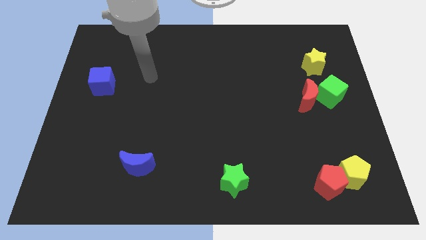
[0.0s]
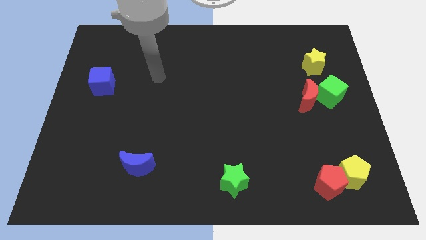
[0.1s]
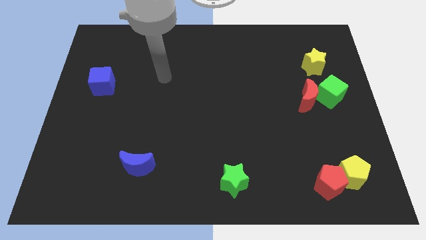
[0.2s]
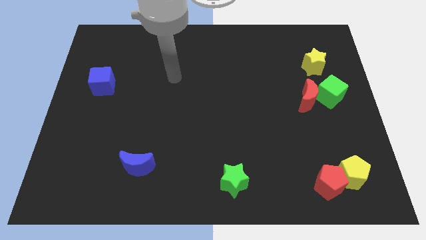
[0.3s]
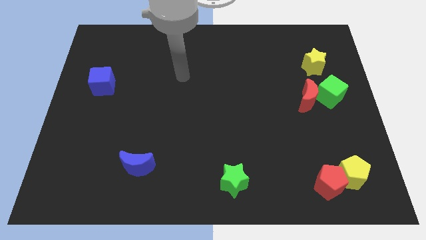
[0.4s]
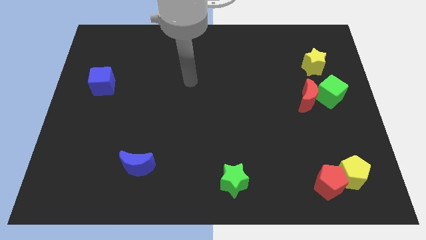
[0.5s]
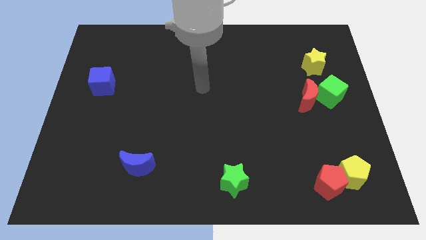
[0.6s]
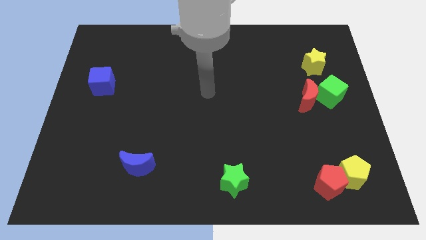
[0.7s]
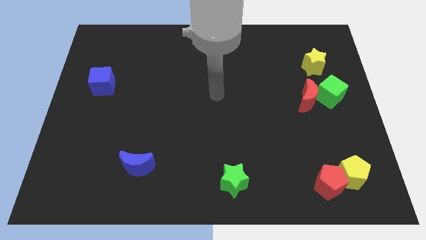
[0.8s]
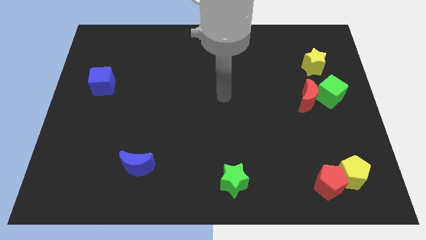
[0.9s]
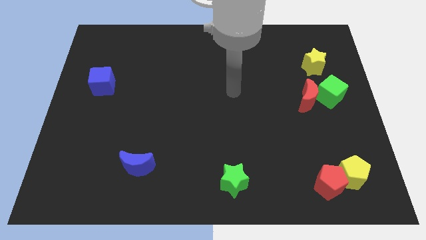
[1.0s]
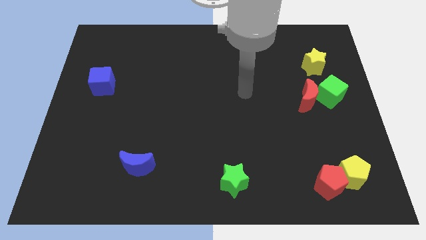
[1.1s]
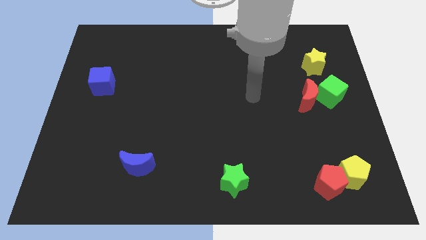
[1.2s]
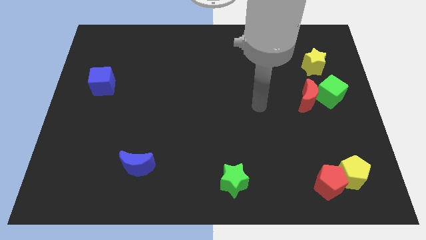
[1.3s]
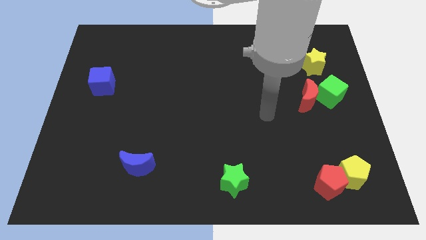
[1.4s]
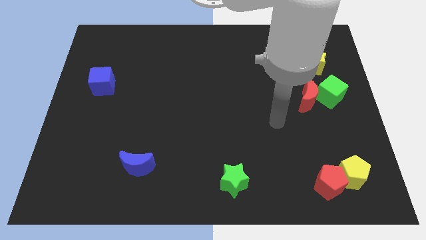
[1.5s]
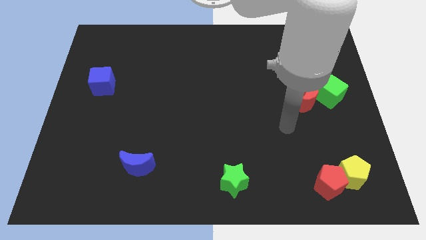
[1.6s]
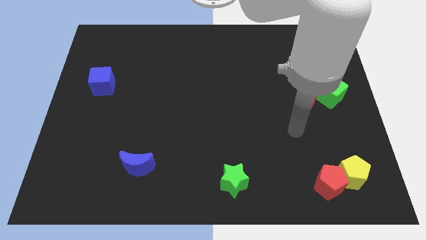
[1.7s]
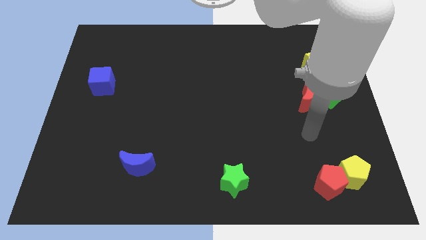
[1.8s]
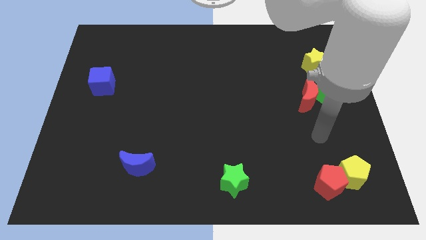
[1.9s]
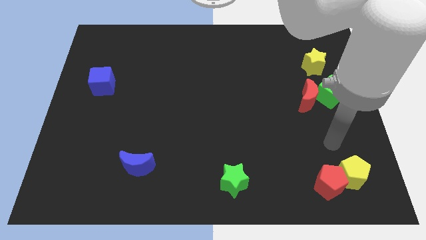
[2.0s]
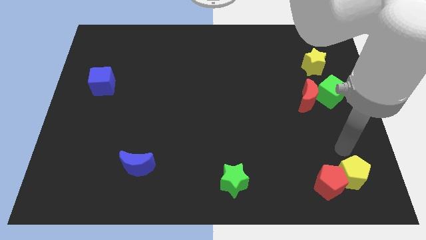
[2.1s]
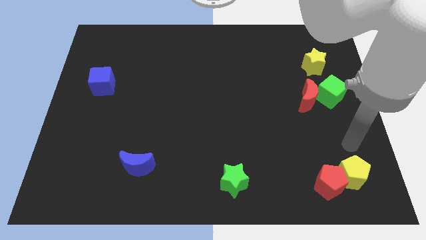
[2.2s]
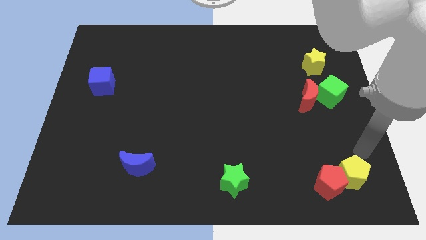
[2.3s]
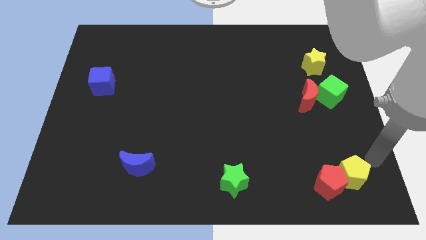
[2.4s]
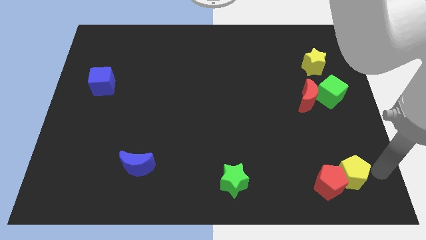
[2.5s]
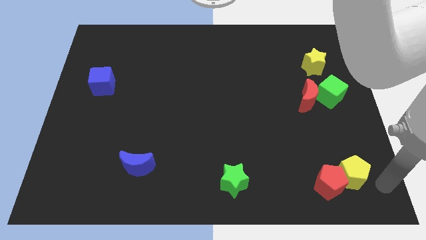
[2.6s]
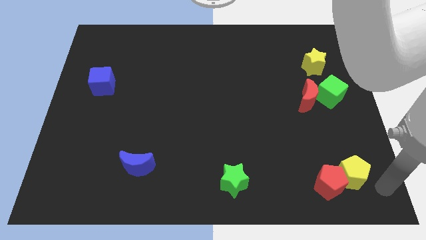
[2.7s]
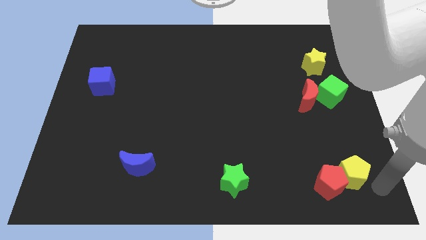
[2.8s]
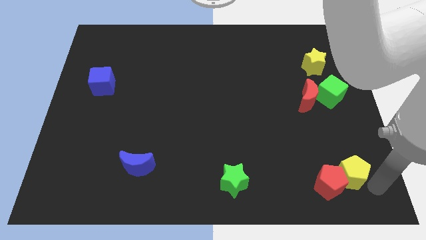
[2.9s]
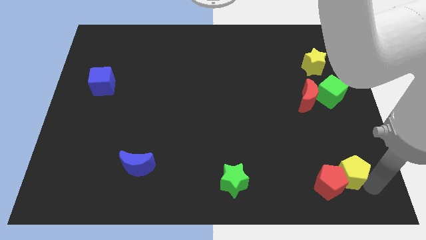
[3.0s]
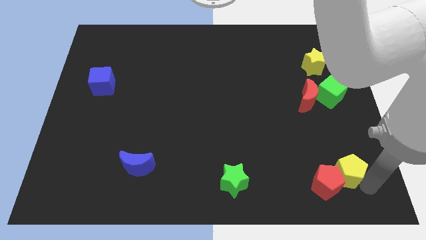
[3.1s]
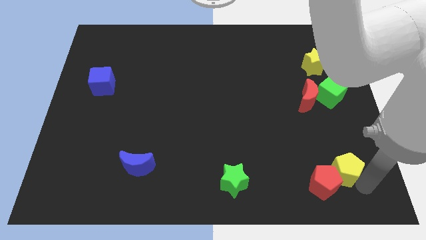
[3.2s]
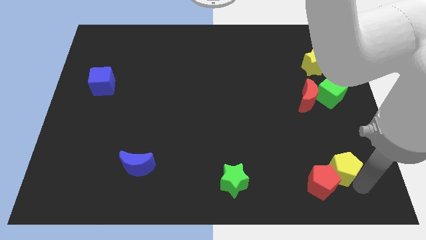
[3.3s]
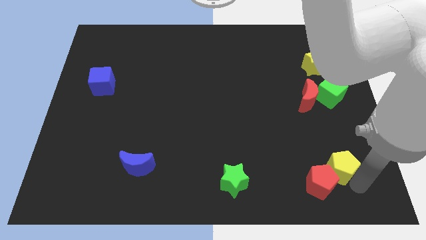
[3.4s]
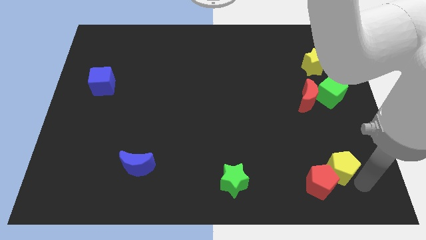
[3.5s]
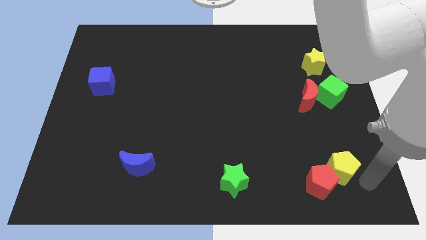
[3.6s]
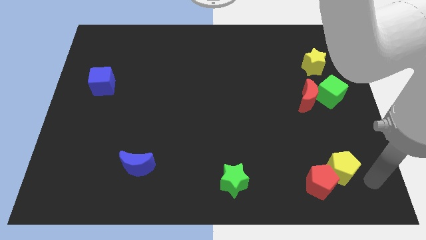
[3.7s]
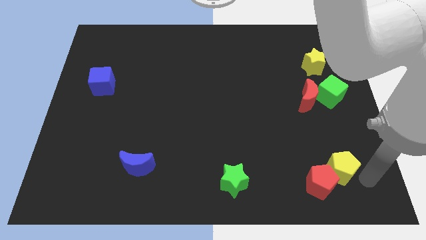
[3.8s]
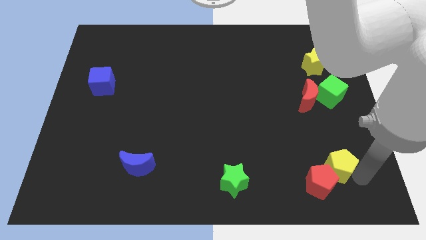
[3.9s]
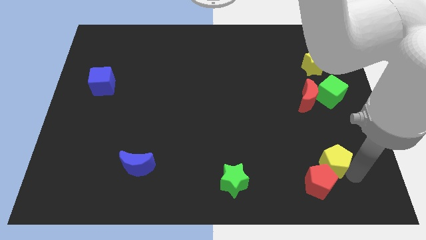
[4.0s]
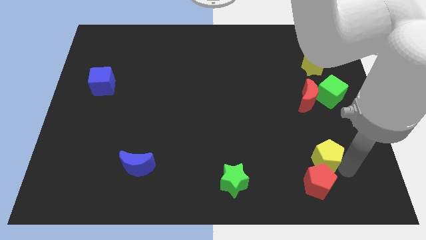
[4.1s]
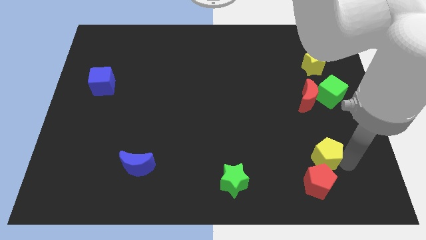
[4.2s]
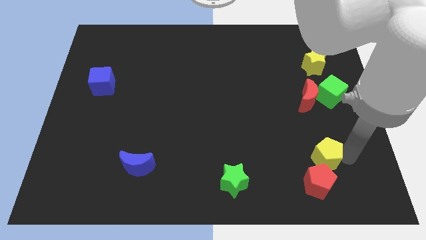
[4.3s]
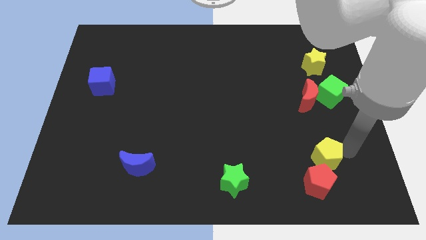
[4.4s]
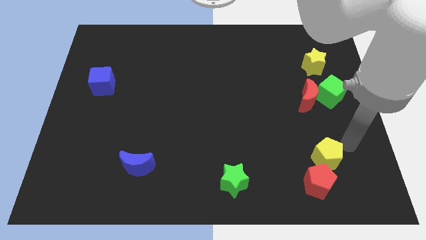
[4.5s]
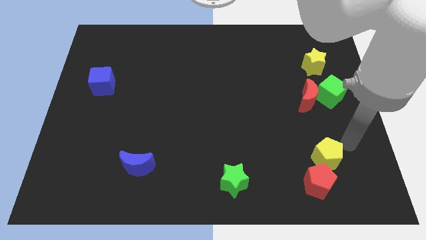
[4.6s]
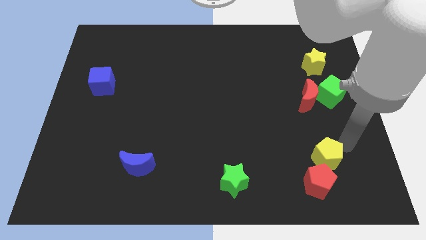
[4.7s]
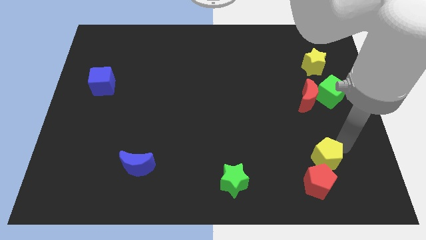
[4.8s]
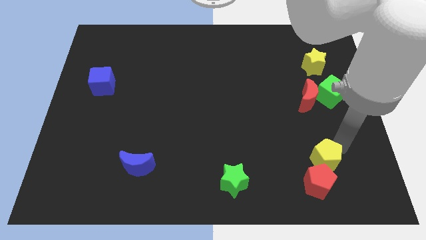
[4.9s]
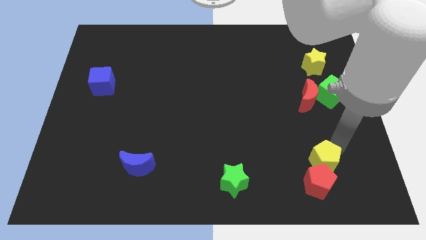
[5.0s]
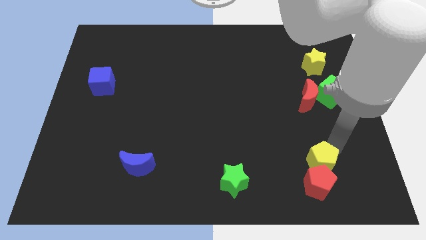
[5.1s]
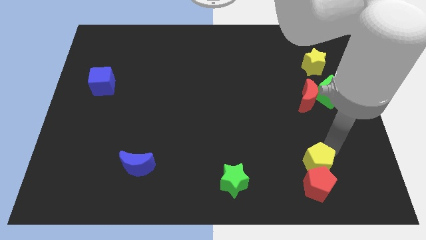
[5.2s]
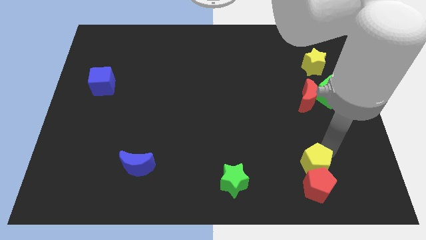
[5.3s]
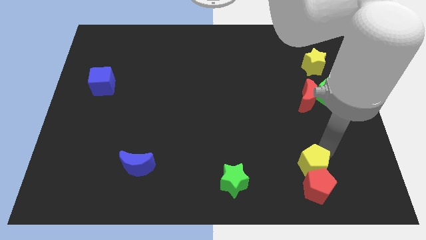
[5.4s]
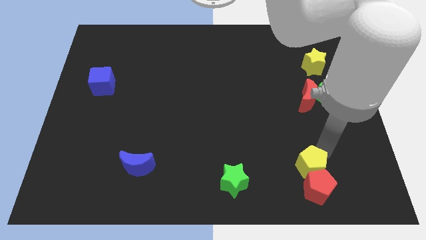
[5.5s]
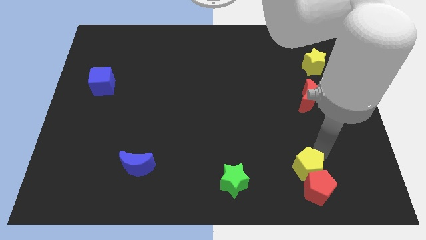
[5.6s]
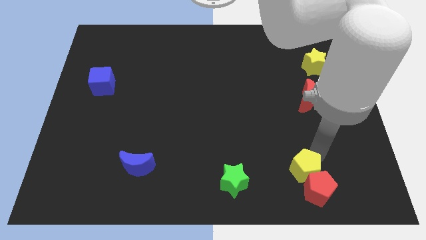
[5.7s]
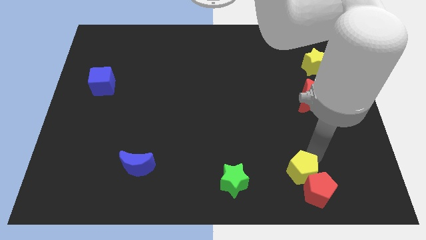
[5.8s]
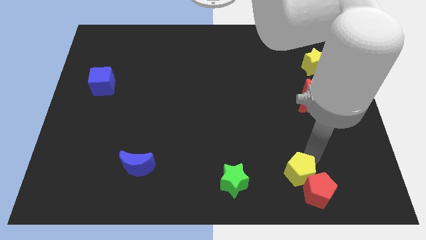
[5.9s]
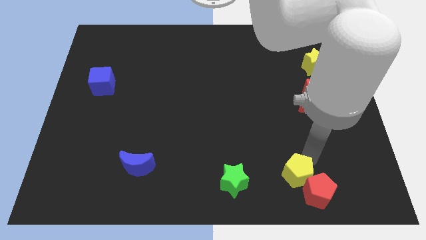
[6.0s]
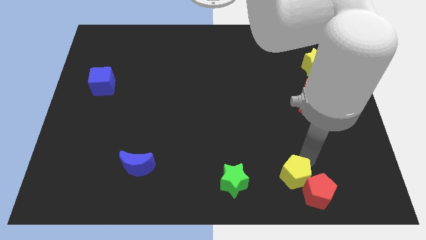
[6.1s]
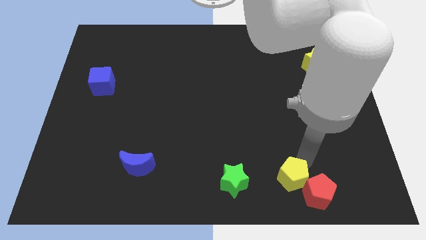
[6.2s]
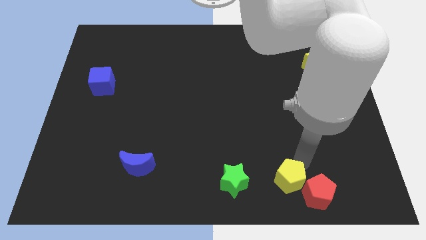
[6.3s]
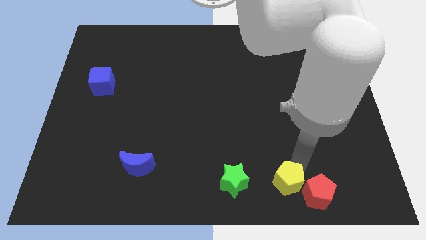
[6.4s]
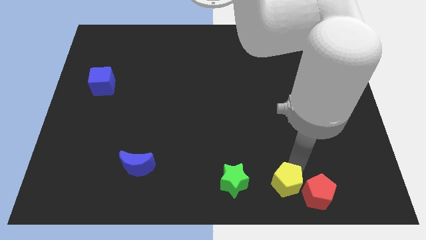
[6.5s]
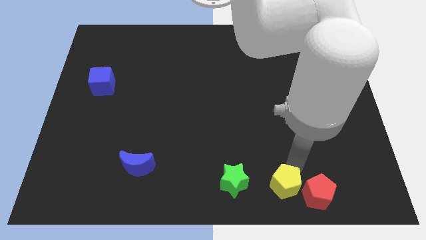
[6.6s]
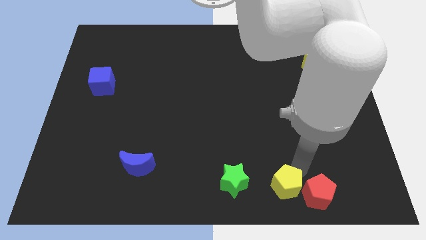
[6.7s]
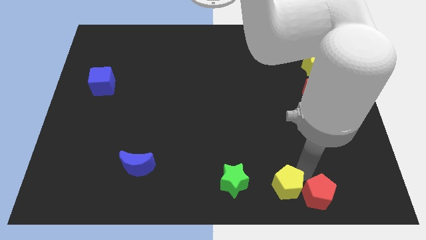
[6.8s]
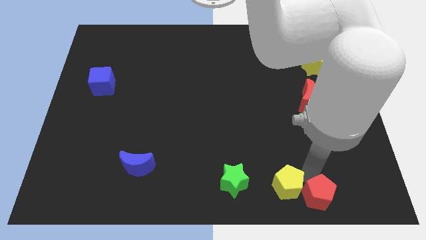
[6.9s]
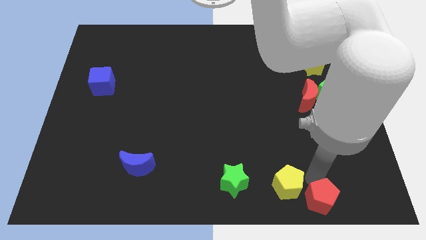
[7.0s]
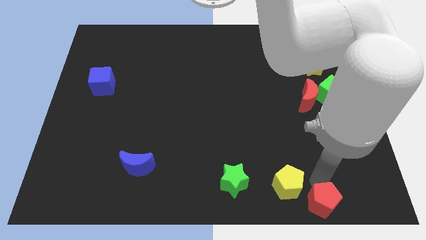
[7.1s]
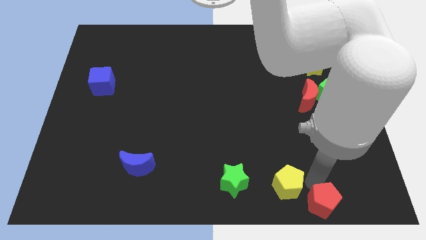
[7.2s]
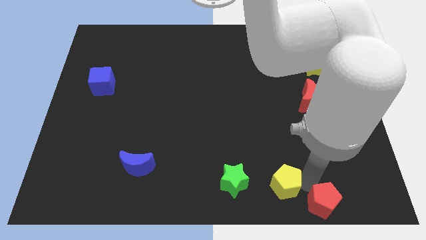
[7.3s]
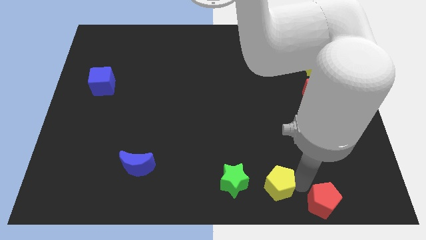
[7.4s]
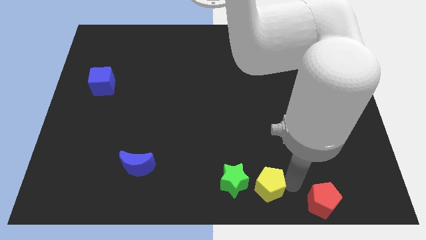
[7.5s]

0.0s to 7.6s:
move the yellow pentagon to the bottom

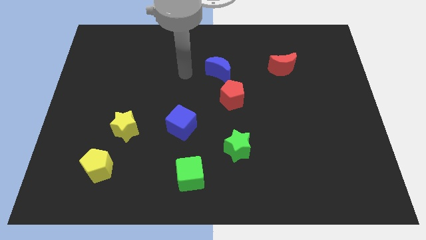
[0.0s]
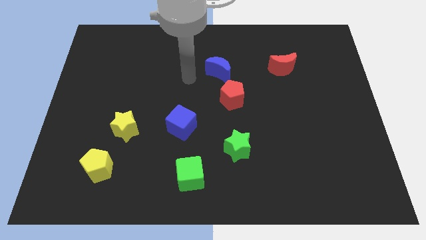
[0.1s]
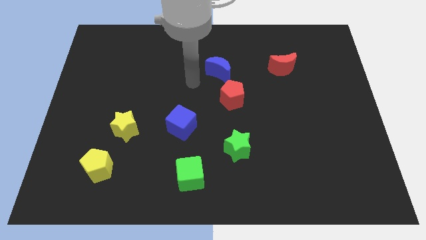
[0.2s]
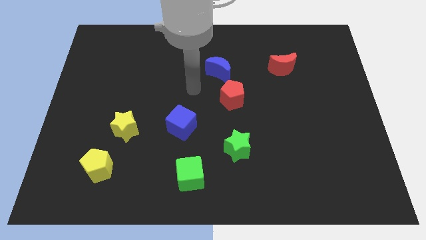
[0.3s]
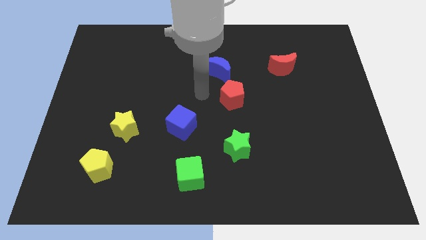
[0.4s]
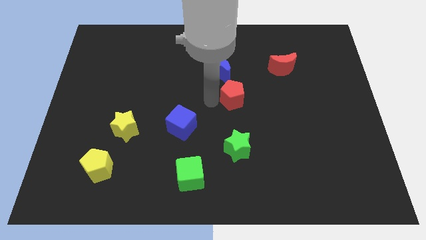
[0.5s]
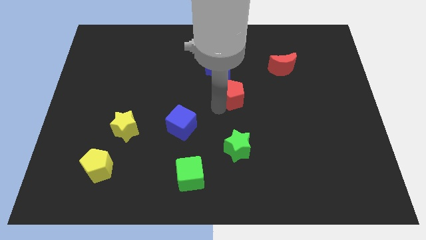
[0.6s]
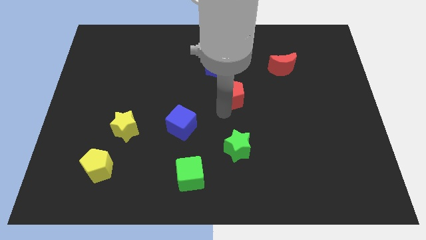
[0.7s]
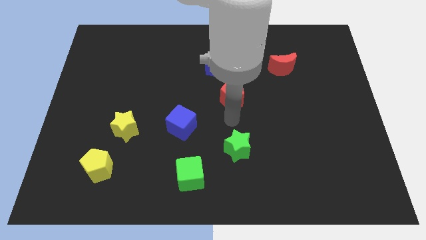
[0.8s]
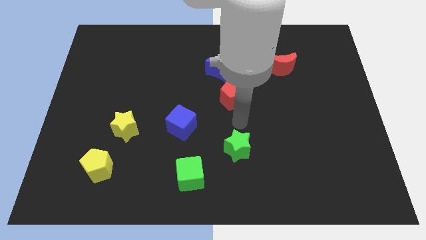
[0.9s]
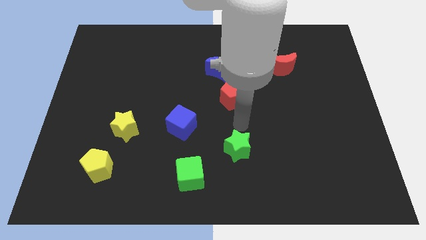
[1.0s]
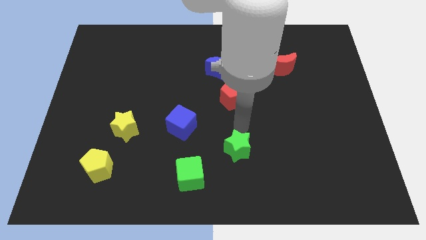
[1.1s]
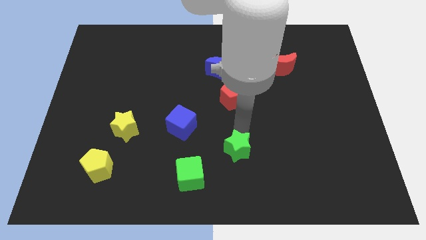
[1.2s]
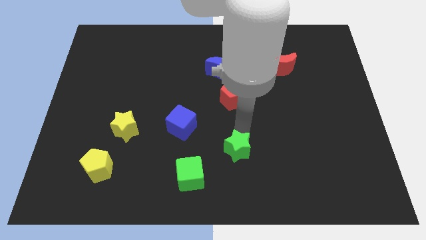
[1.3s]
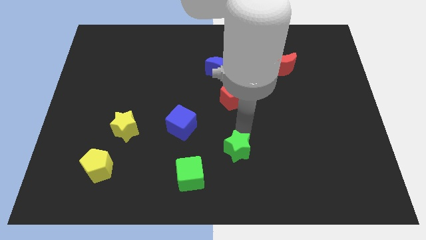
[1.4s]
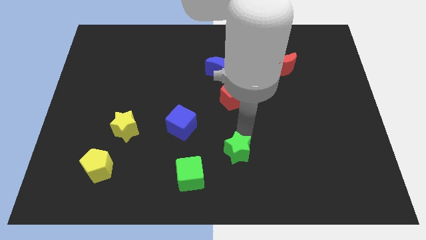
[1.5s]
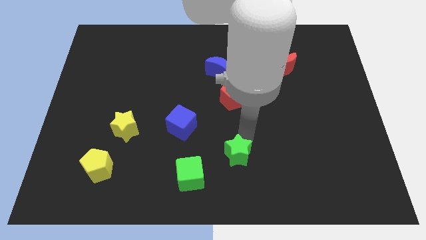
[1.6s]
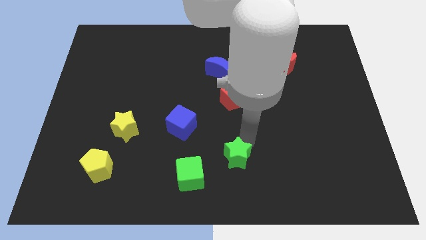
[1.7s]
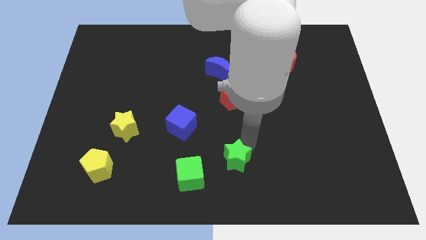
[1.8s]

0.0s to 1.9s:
move the green star to the bottom
